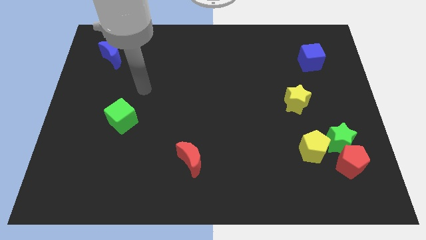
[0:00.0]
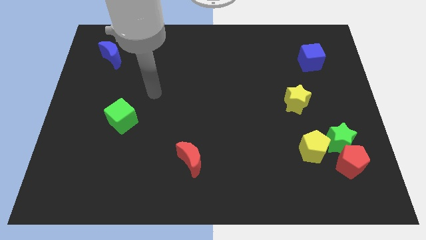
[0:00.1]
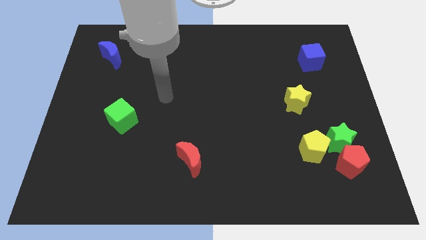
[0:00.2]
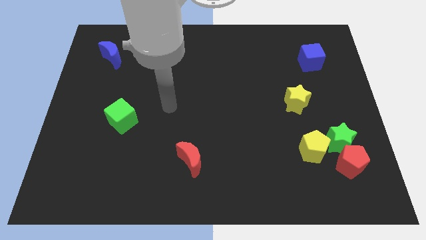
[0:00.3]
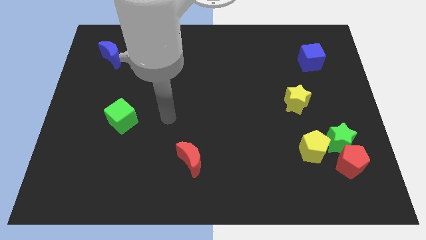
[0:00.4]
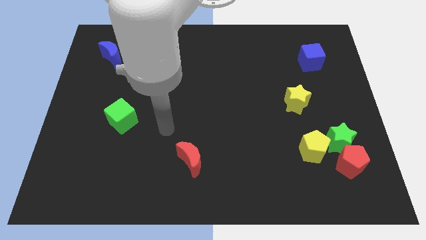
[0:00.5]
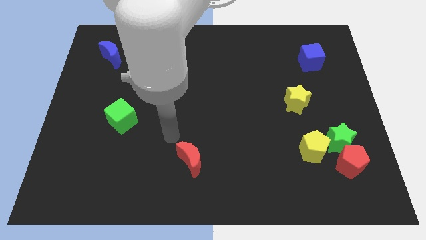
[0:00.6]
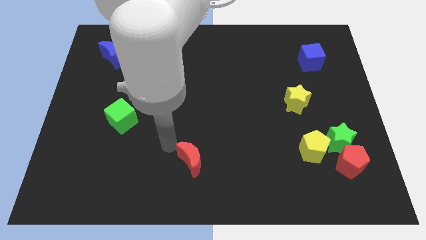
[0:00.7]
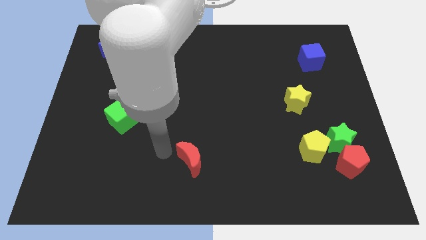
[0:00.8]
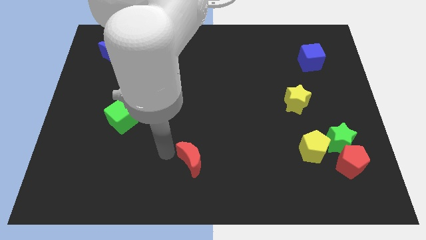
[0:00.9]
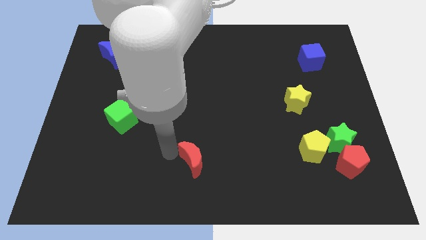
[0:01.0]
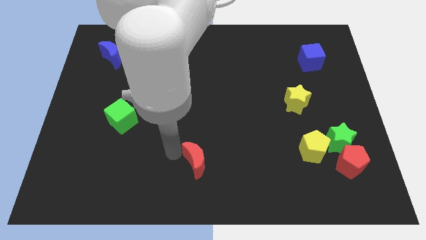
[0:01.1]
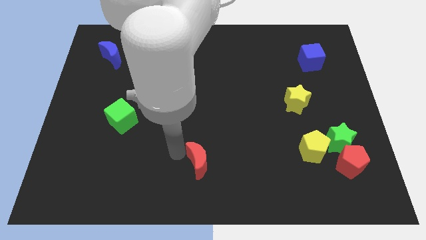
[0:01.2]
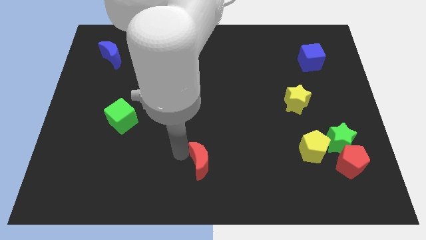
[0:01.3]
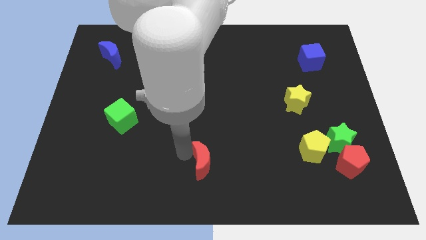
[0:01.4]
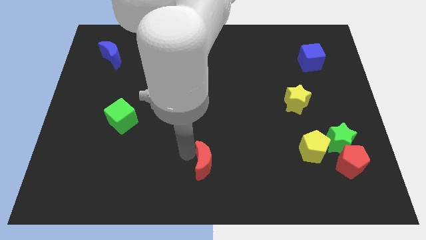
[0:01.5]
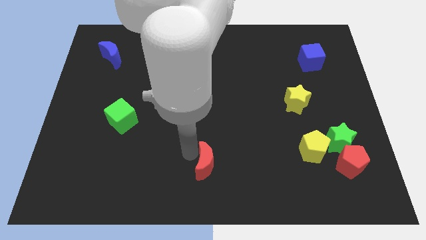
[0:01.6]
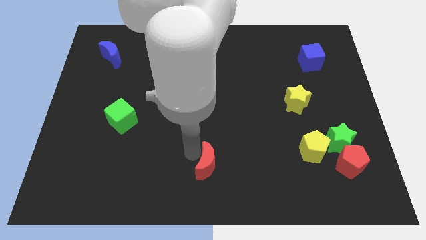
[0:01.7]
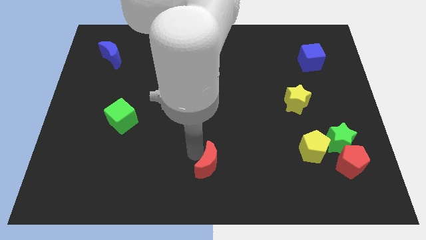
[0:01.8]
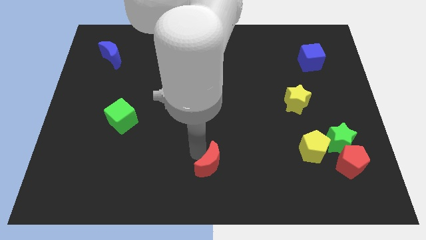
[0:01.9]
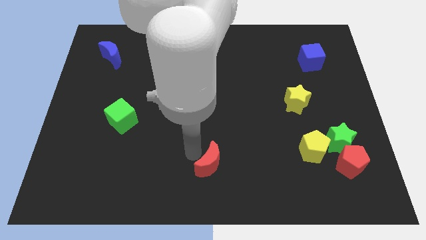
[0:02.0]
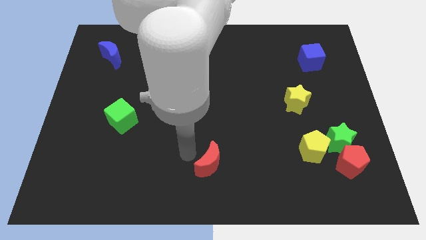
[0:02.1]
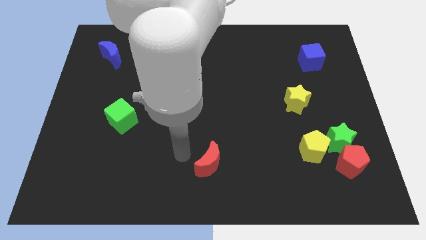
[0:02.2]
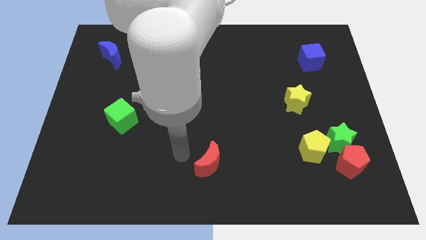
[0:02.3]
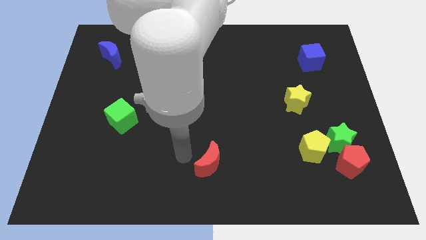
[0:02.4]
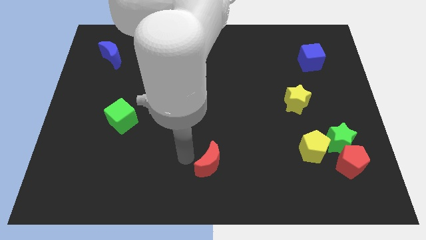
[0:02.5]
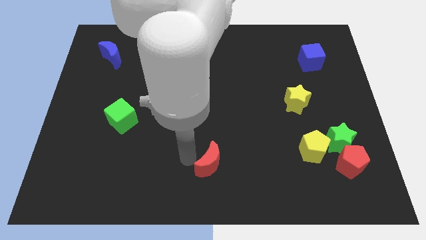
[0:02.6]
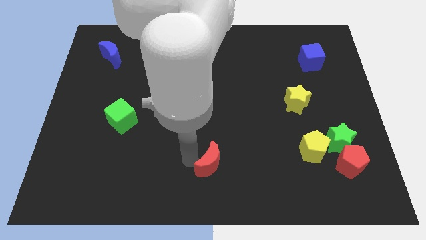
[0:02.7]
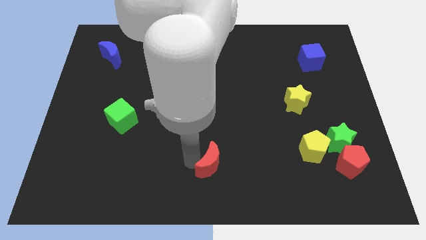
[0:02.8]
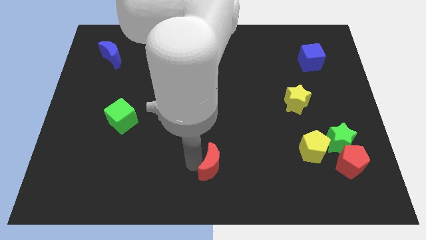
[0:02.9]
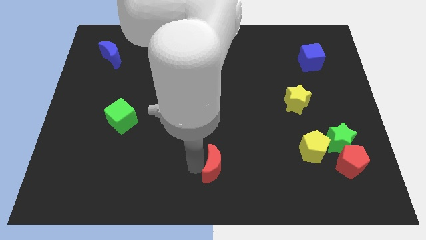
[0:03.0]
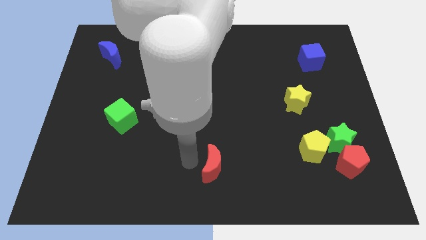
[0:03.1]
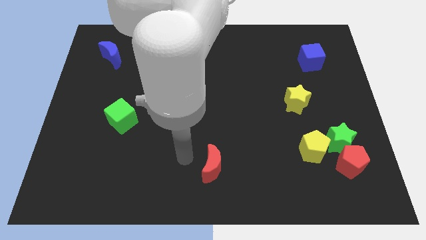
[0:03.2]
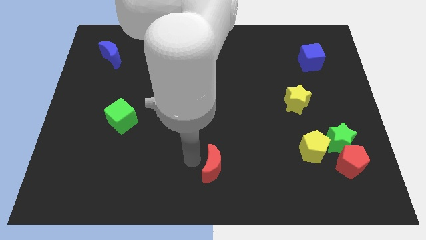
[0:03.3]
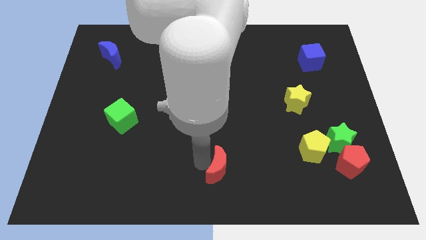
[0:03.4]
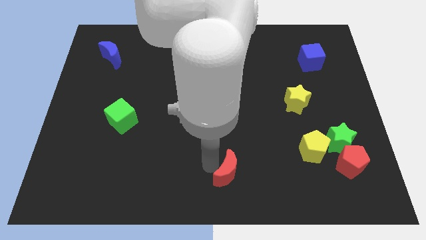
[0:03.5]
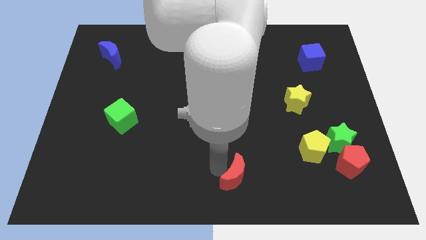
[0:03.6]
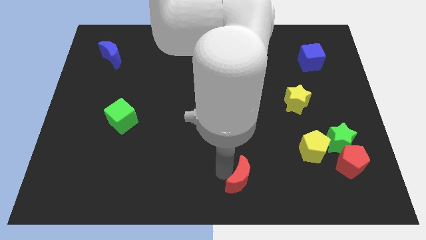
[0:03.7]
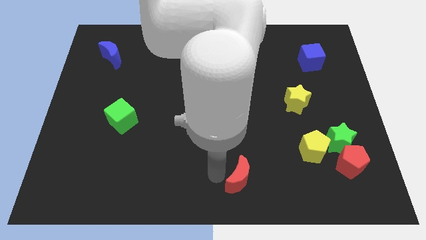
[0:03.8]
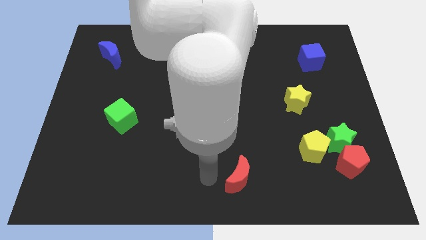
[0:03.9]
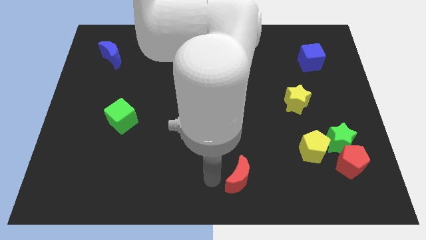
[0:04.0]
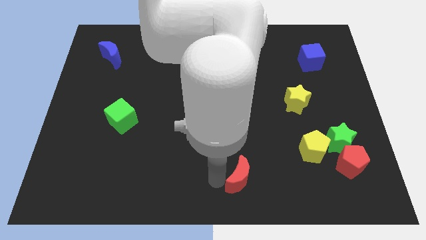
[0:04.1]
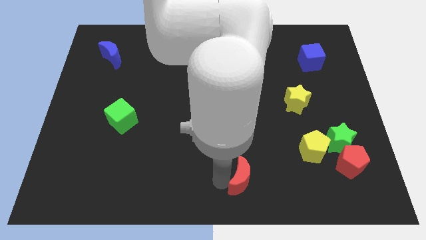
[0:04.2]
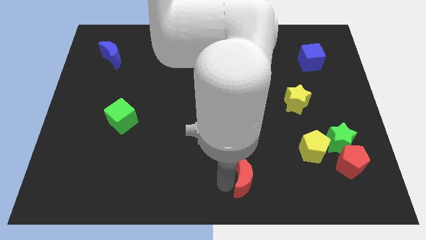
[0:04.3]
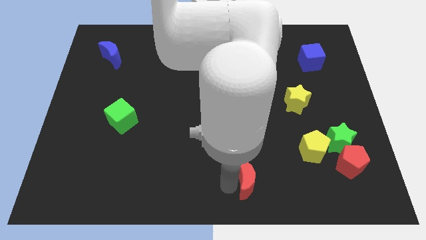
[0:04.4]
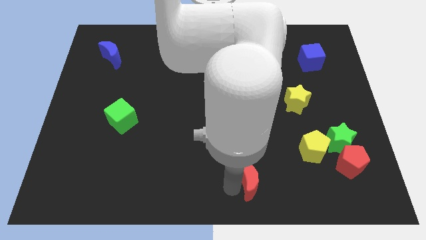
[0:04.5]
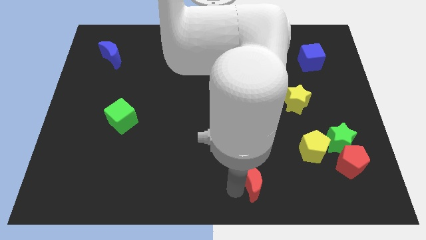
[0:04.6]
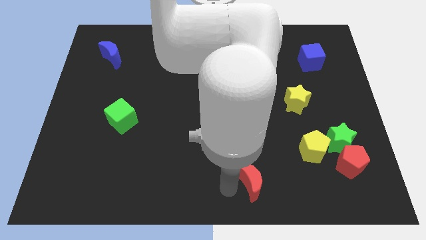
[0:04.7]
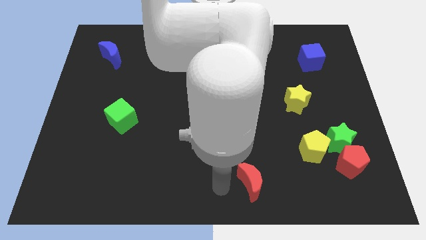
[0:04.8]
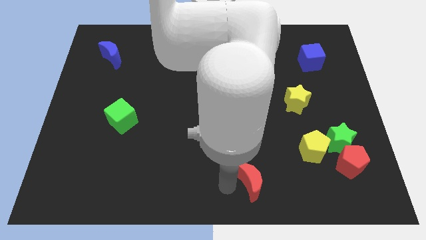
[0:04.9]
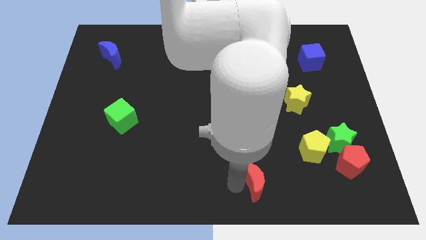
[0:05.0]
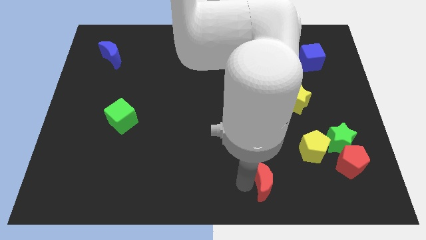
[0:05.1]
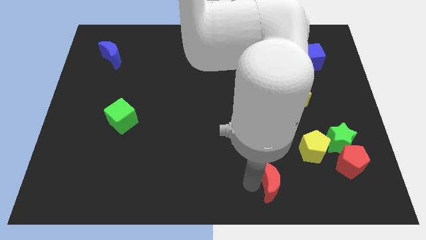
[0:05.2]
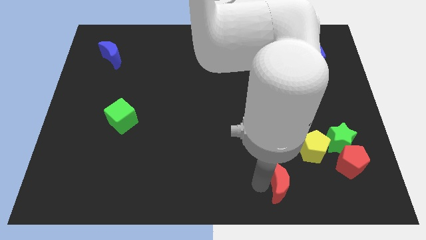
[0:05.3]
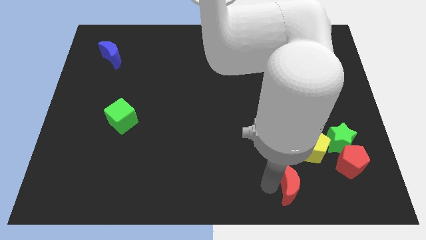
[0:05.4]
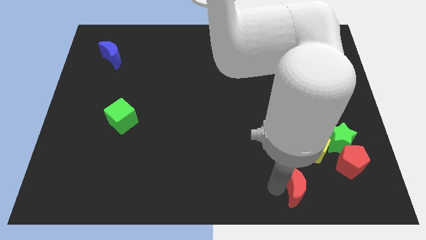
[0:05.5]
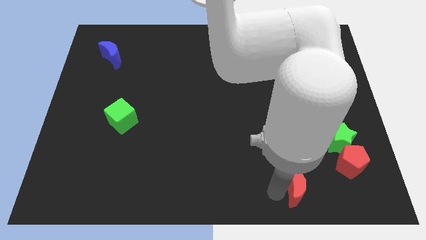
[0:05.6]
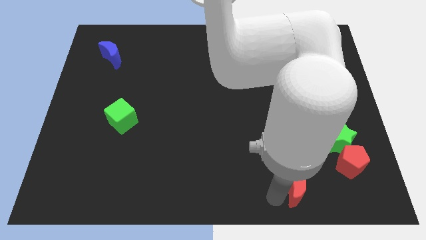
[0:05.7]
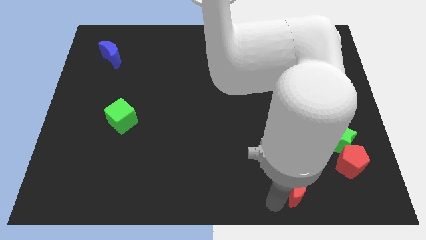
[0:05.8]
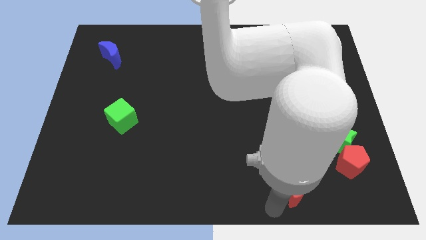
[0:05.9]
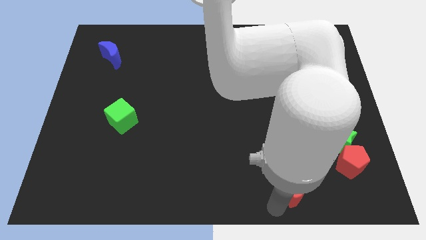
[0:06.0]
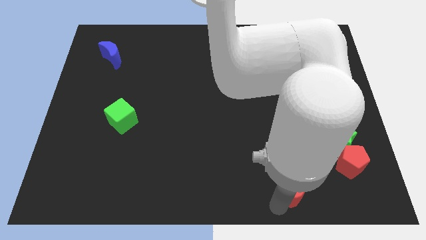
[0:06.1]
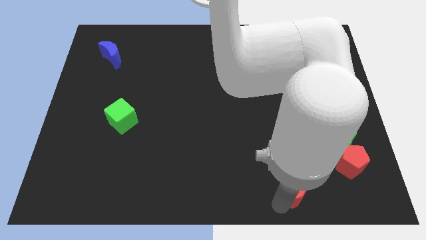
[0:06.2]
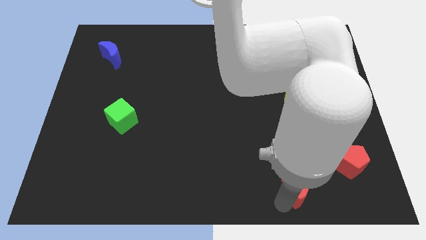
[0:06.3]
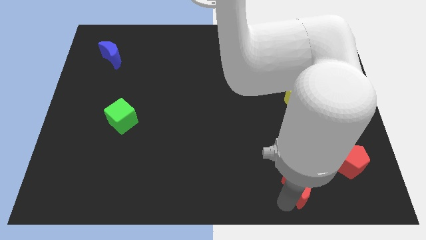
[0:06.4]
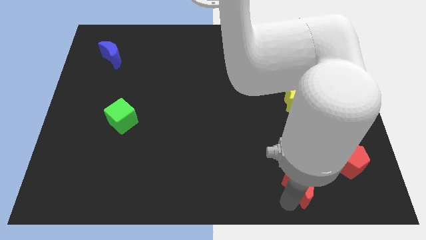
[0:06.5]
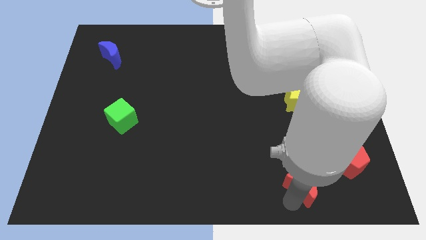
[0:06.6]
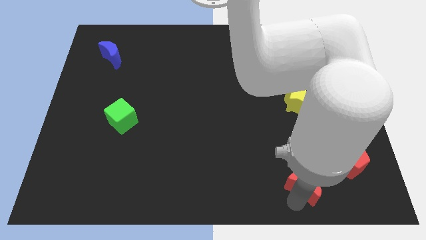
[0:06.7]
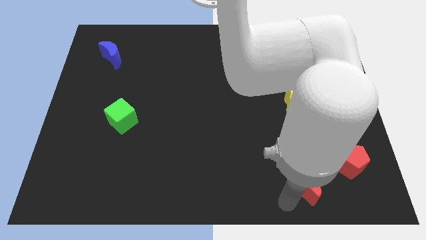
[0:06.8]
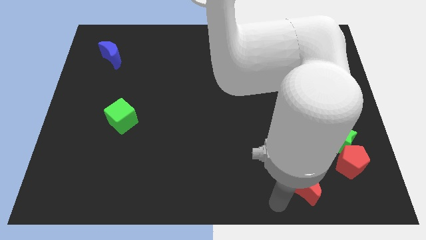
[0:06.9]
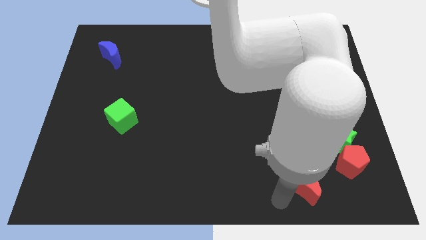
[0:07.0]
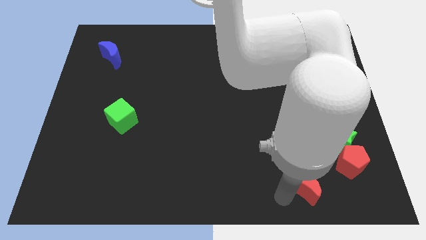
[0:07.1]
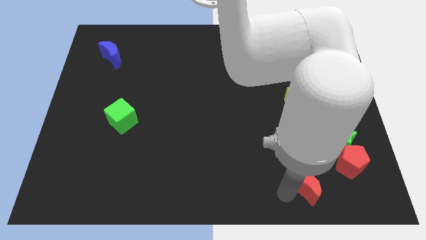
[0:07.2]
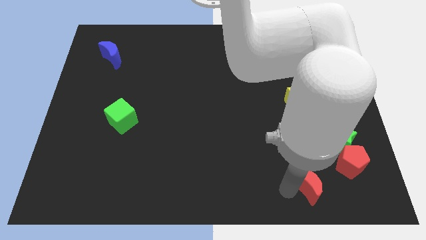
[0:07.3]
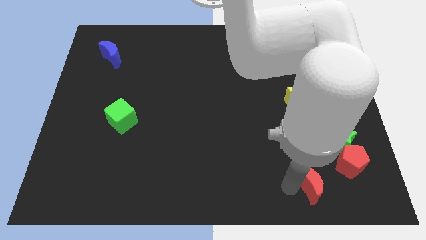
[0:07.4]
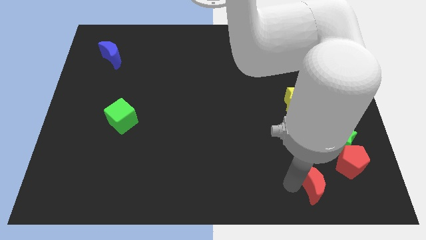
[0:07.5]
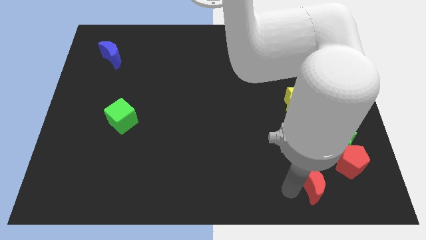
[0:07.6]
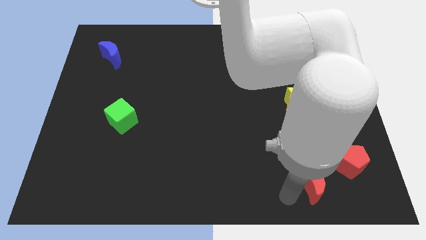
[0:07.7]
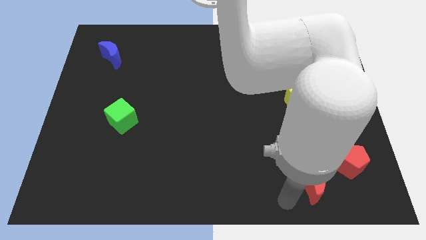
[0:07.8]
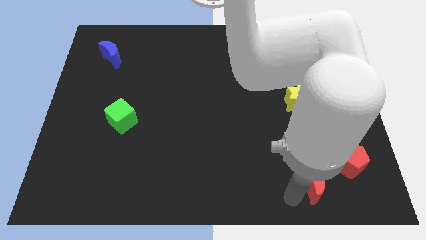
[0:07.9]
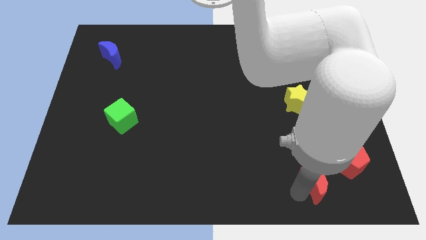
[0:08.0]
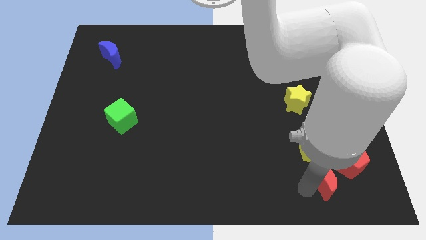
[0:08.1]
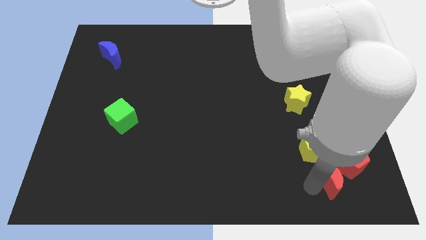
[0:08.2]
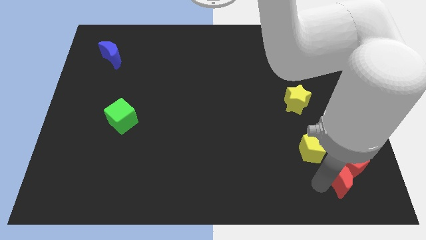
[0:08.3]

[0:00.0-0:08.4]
slide the red moon to the red pentagon
